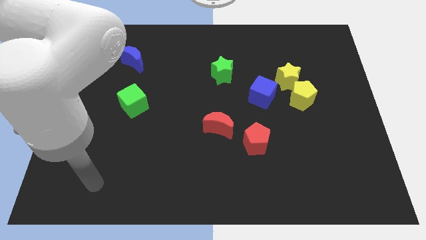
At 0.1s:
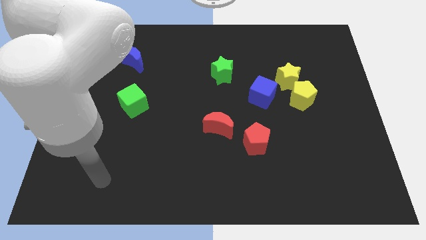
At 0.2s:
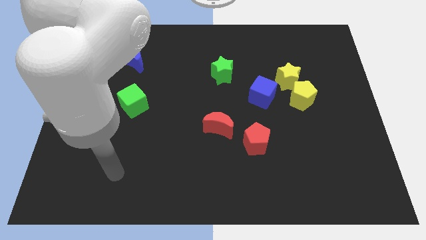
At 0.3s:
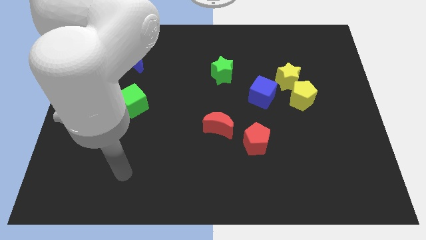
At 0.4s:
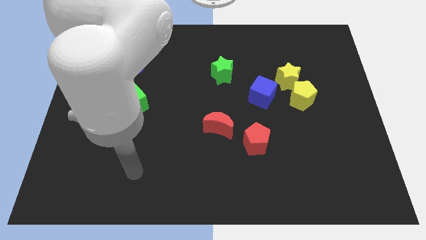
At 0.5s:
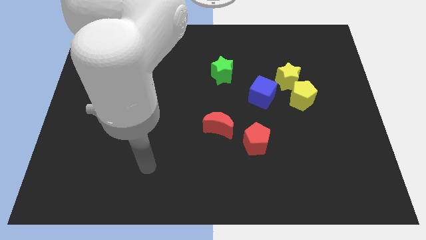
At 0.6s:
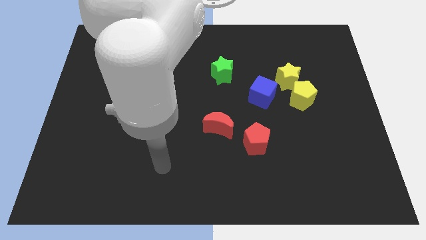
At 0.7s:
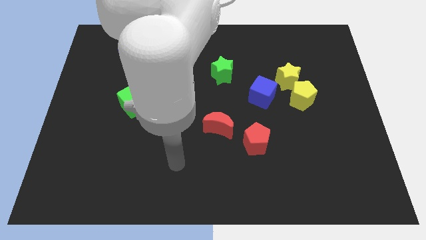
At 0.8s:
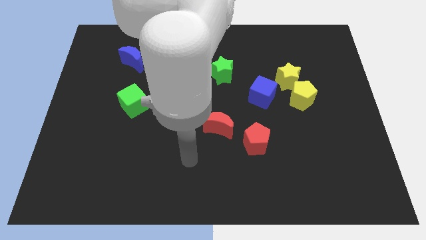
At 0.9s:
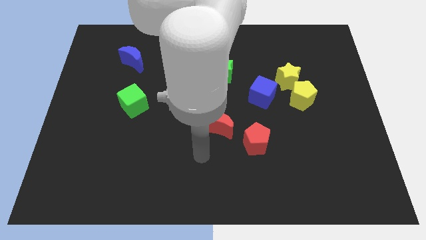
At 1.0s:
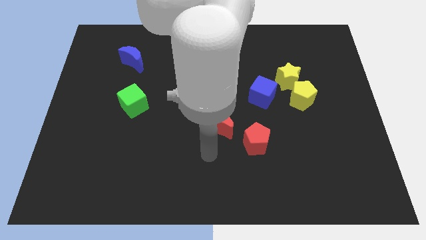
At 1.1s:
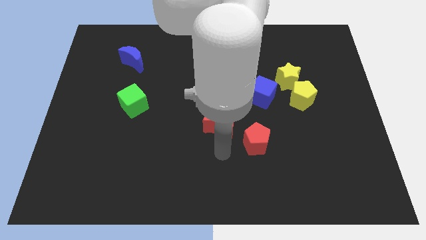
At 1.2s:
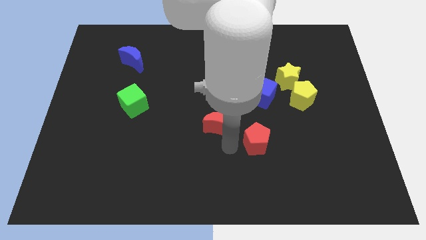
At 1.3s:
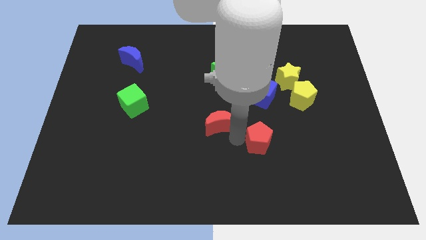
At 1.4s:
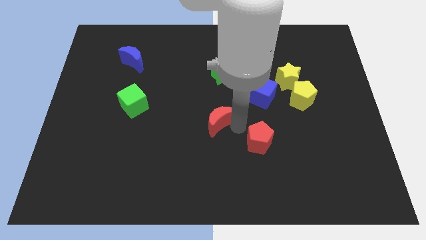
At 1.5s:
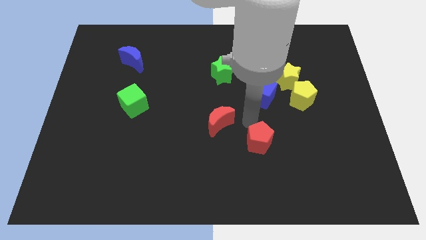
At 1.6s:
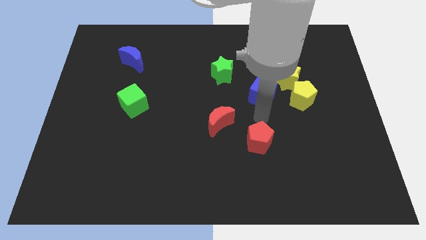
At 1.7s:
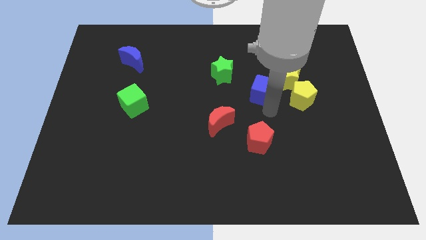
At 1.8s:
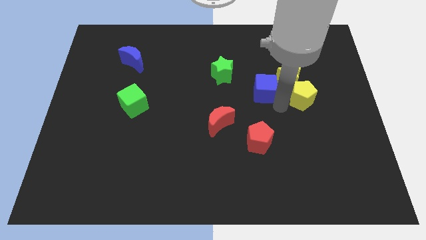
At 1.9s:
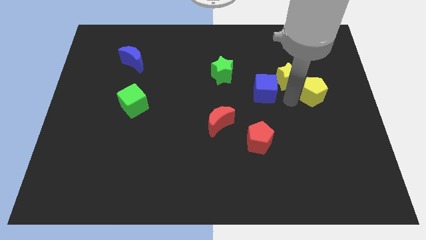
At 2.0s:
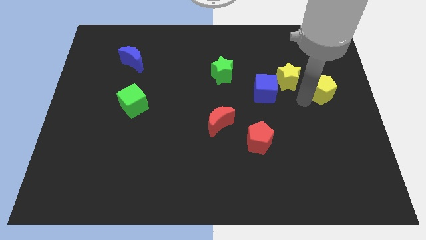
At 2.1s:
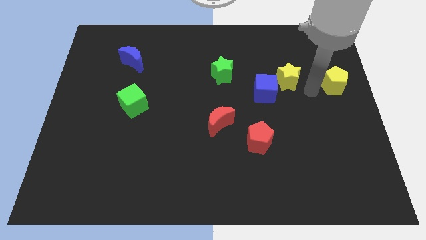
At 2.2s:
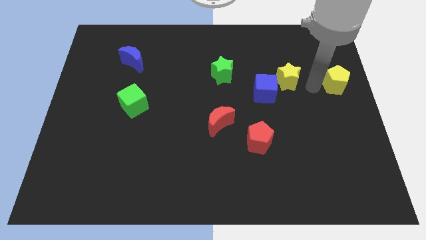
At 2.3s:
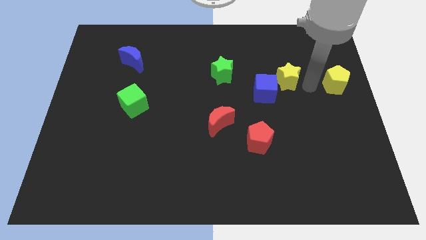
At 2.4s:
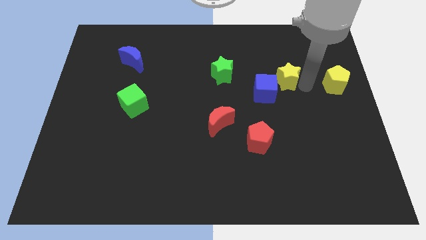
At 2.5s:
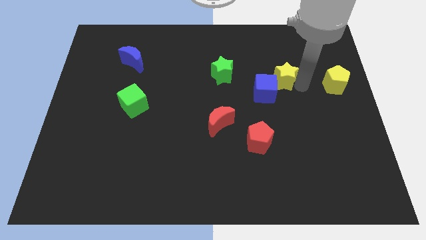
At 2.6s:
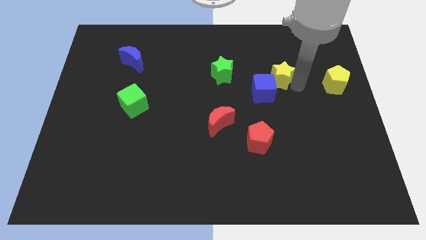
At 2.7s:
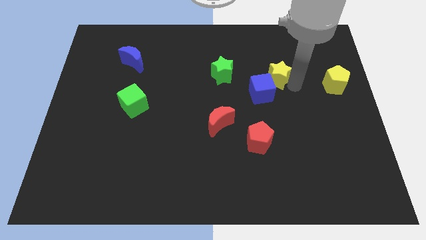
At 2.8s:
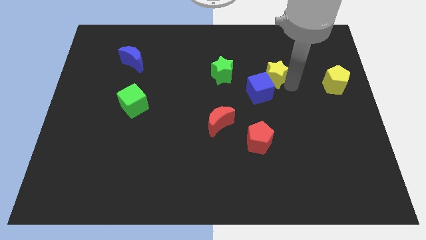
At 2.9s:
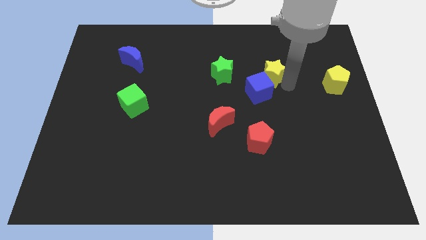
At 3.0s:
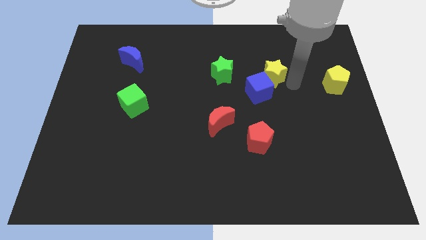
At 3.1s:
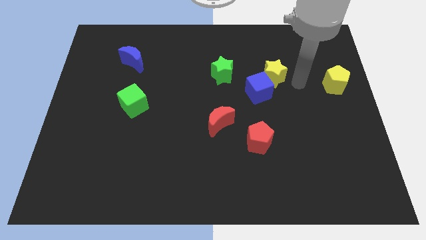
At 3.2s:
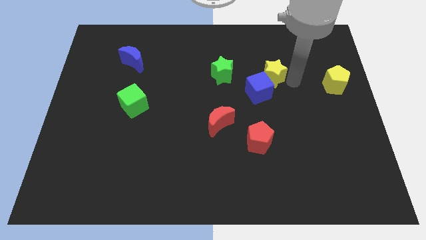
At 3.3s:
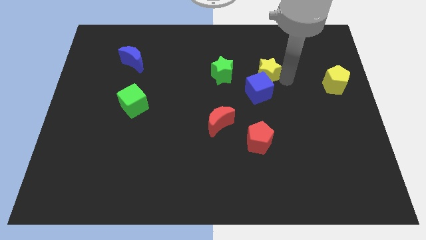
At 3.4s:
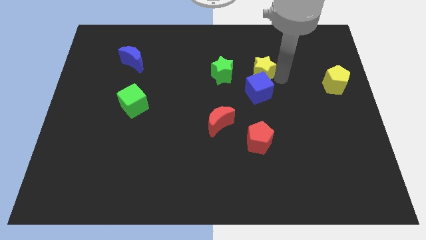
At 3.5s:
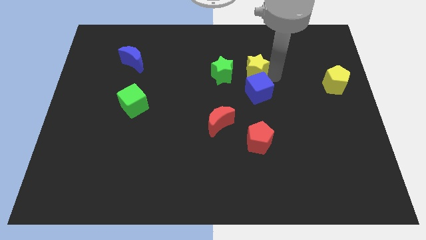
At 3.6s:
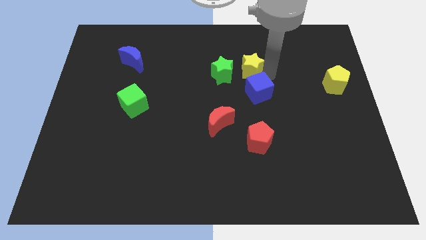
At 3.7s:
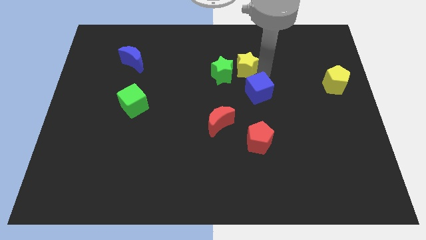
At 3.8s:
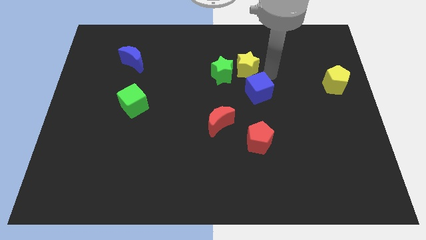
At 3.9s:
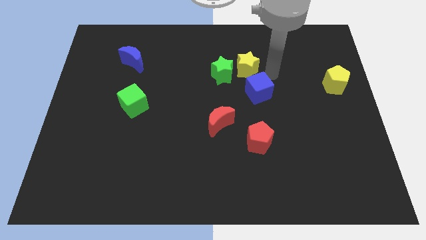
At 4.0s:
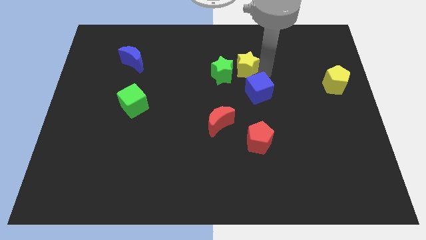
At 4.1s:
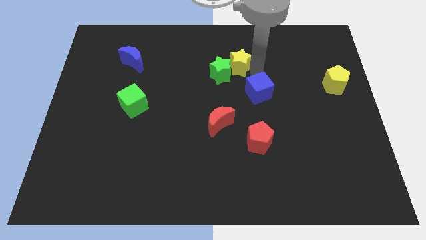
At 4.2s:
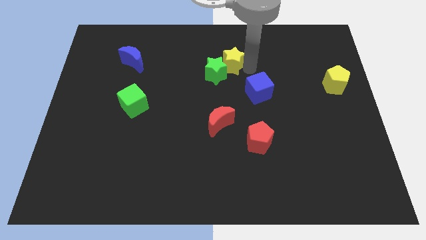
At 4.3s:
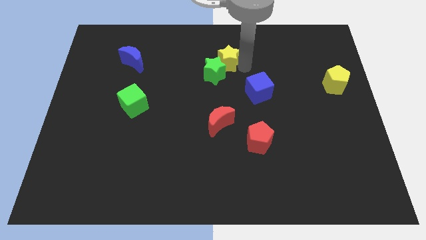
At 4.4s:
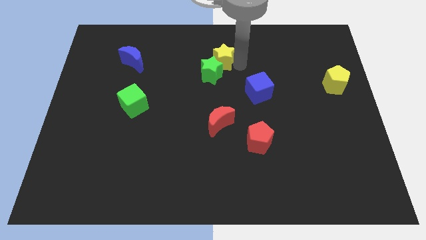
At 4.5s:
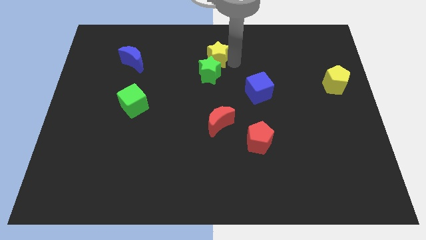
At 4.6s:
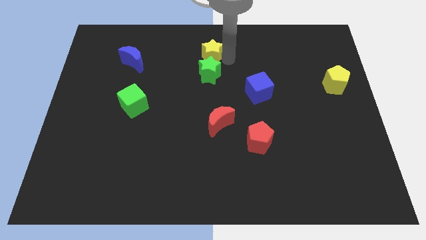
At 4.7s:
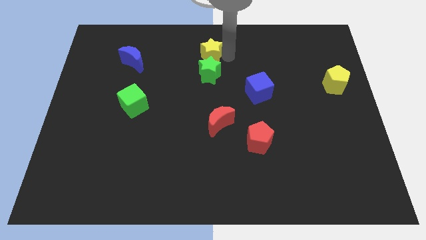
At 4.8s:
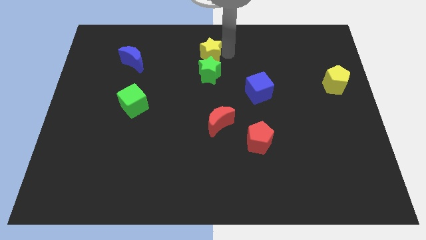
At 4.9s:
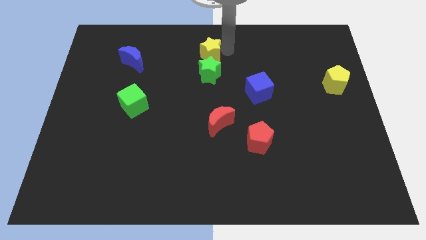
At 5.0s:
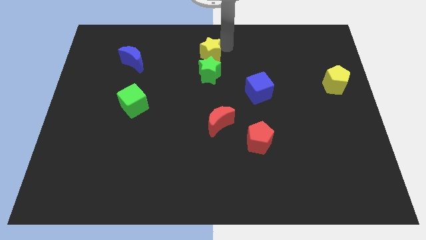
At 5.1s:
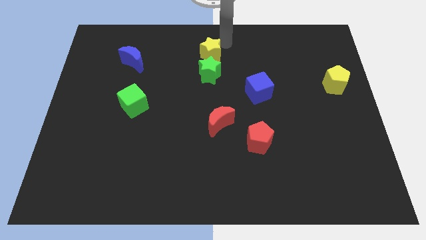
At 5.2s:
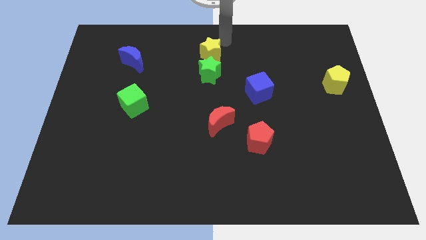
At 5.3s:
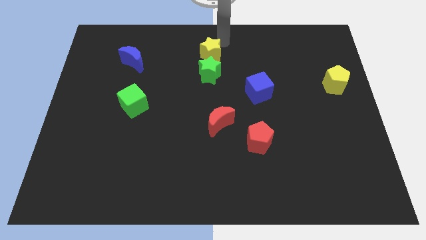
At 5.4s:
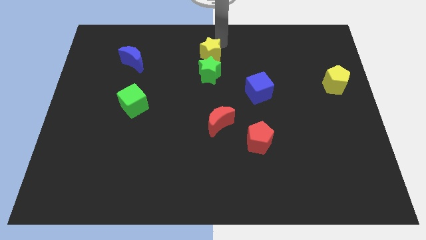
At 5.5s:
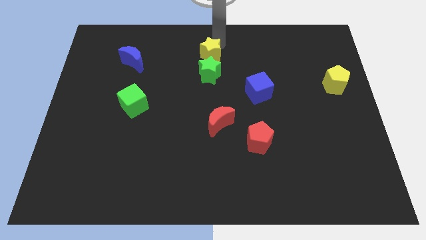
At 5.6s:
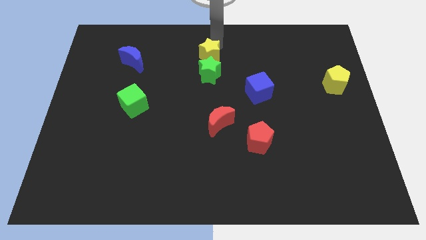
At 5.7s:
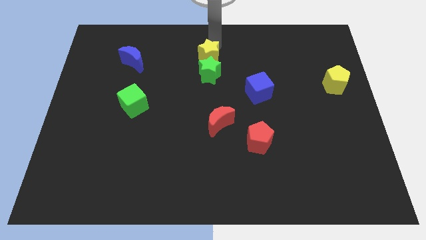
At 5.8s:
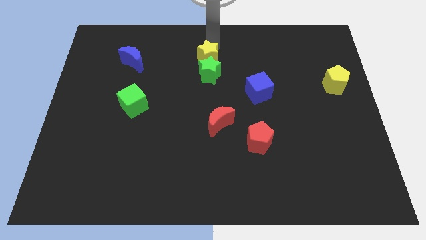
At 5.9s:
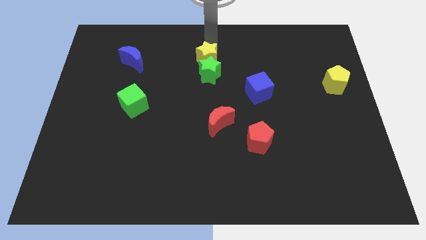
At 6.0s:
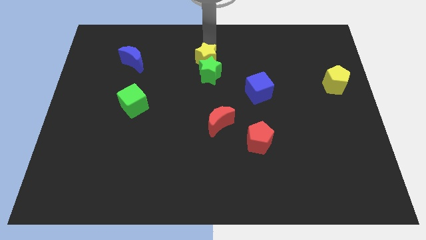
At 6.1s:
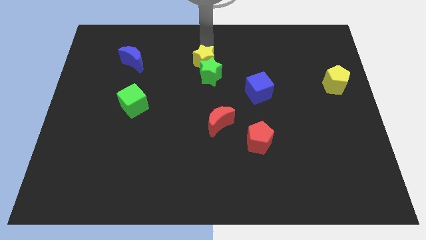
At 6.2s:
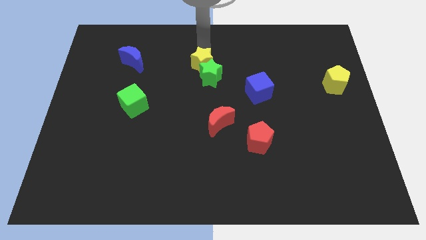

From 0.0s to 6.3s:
slide the yellow star left

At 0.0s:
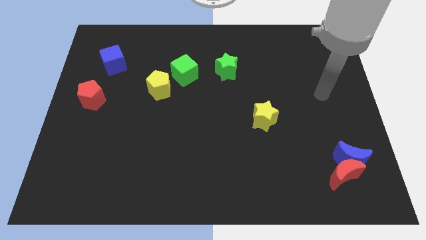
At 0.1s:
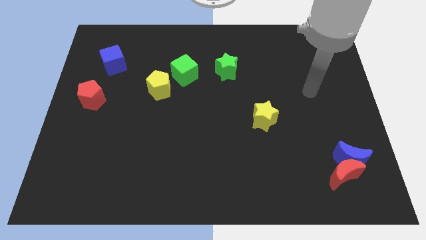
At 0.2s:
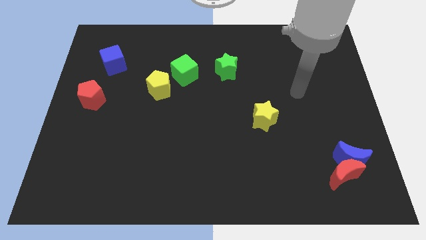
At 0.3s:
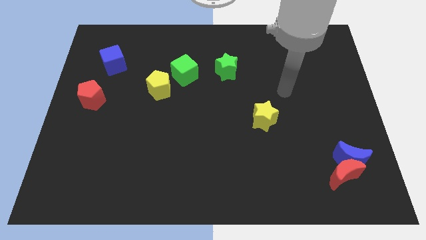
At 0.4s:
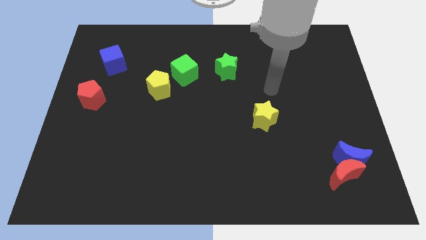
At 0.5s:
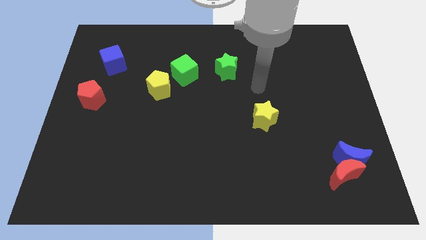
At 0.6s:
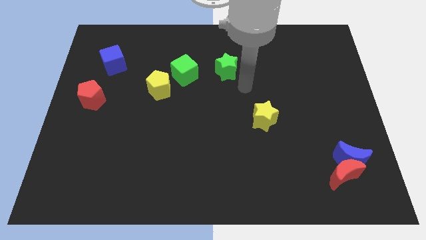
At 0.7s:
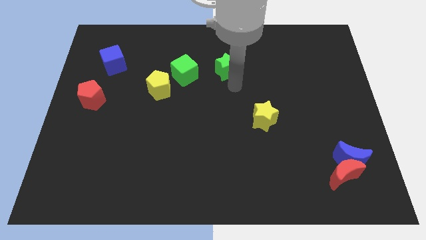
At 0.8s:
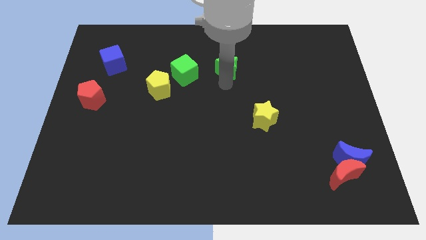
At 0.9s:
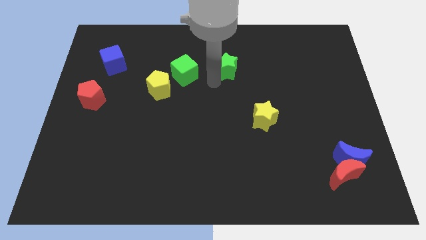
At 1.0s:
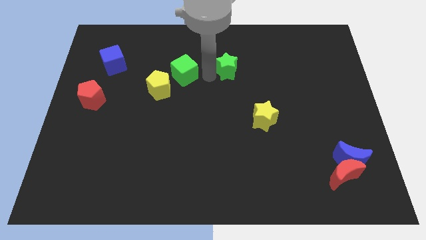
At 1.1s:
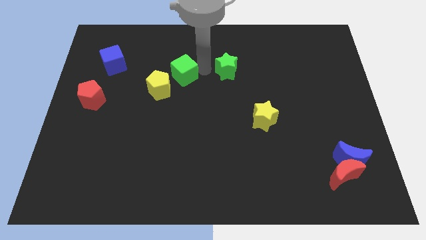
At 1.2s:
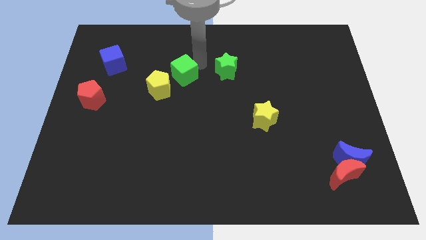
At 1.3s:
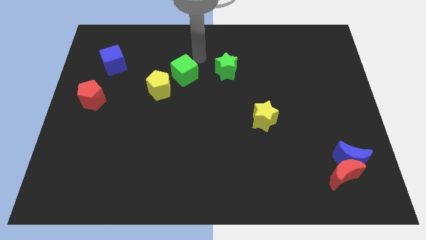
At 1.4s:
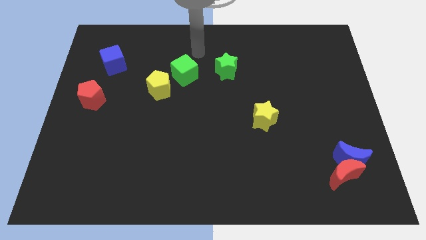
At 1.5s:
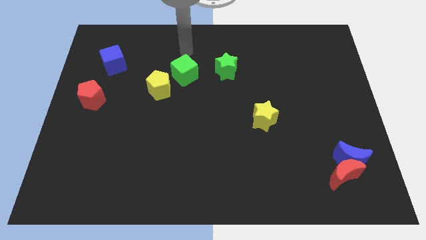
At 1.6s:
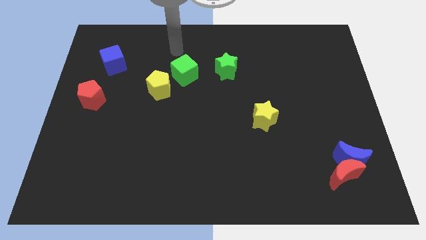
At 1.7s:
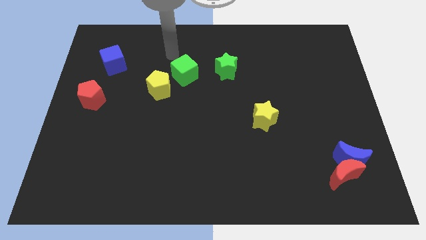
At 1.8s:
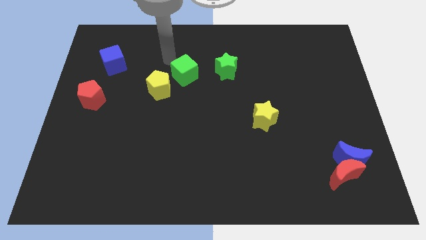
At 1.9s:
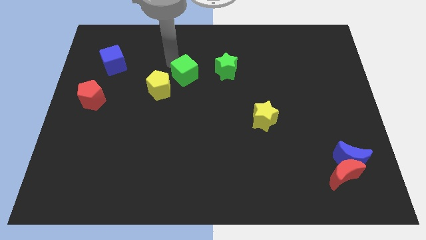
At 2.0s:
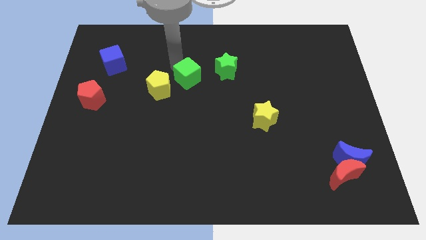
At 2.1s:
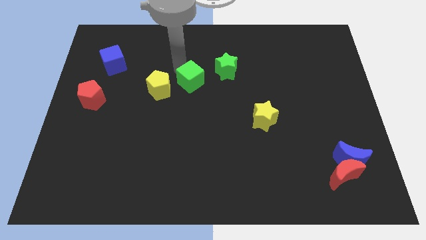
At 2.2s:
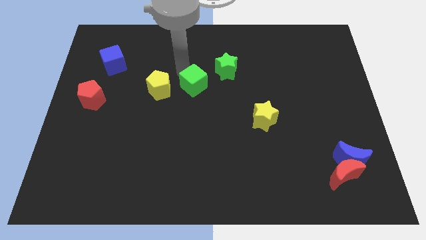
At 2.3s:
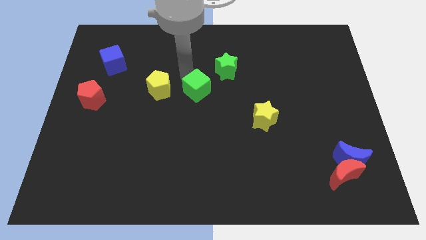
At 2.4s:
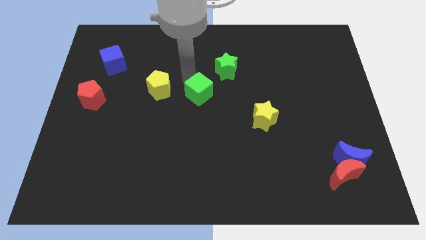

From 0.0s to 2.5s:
move the green cube a little diagonally downwards and to the right
